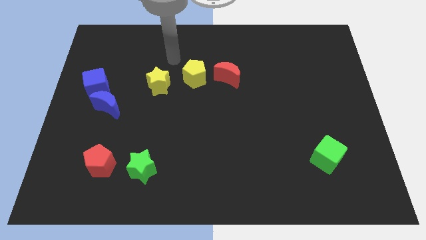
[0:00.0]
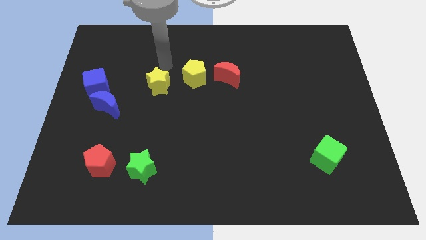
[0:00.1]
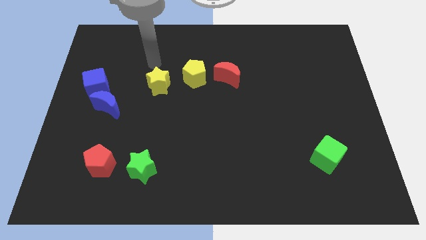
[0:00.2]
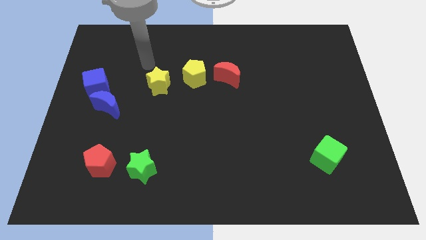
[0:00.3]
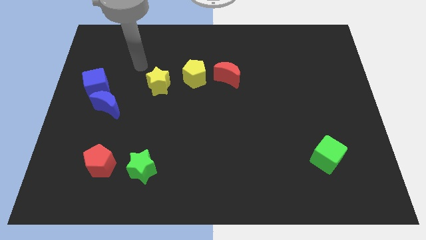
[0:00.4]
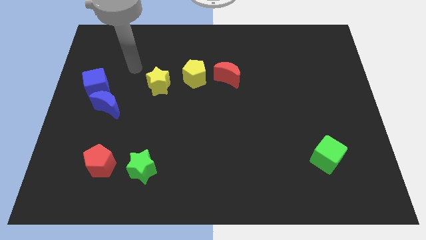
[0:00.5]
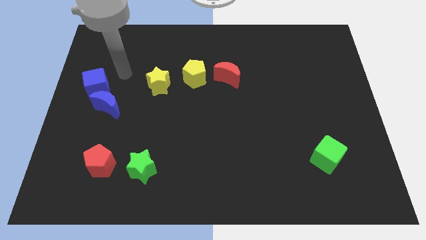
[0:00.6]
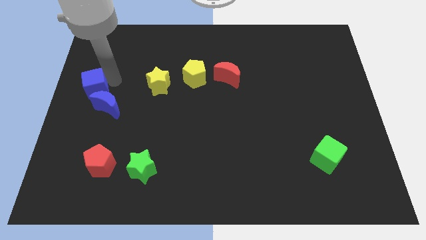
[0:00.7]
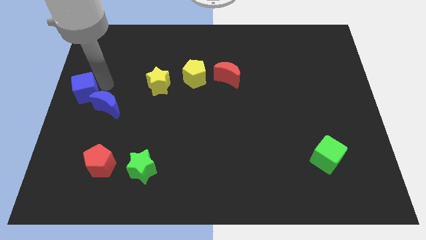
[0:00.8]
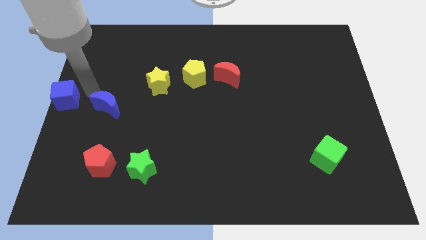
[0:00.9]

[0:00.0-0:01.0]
move the blue moon away from the blue cube

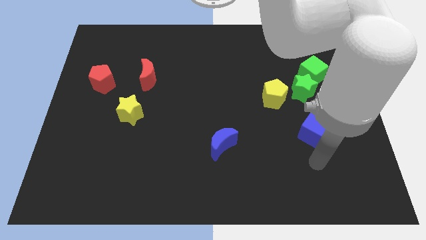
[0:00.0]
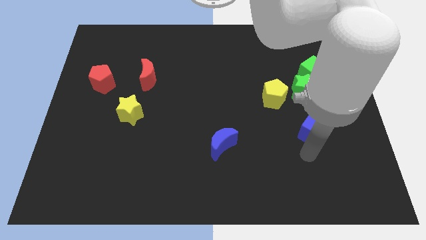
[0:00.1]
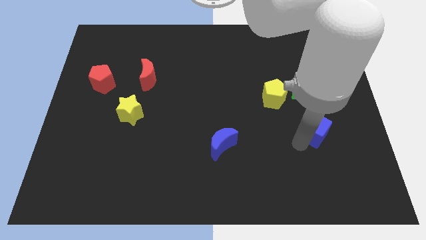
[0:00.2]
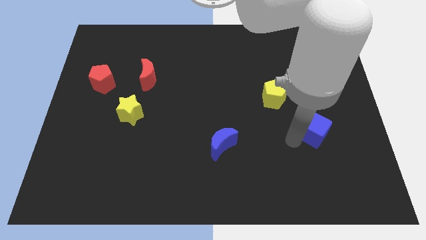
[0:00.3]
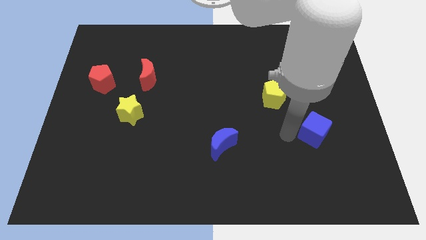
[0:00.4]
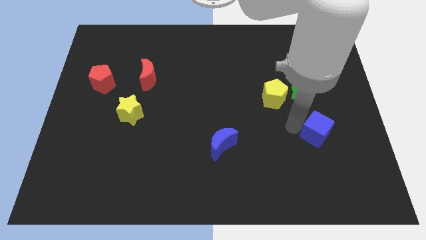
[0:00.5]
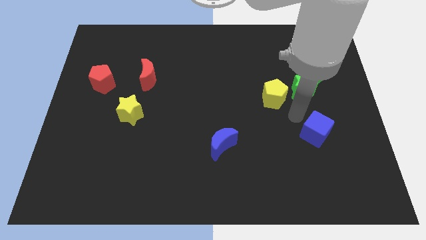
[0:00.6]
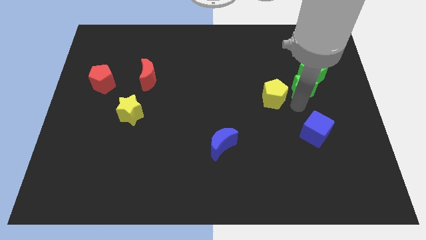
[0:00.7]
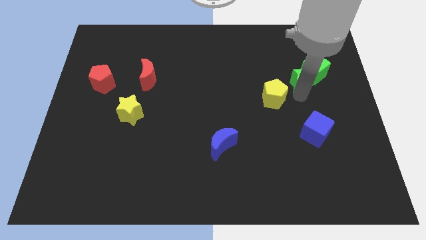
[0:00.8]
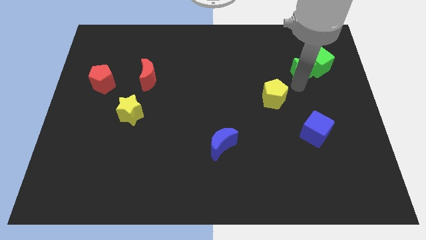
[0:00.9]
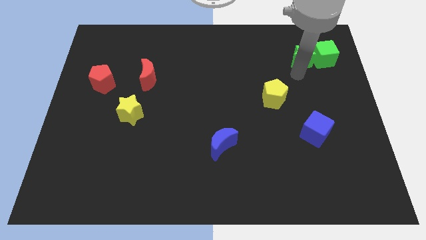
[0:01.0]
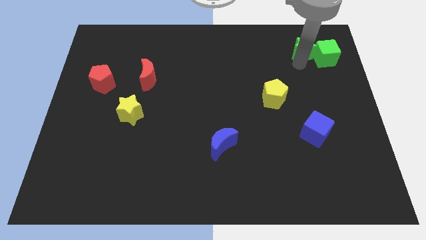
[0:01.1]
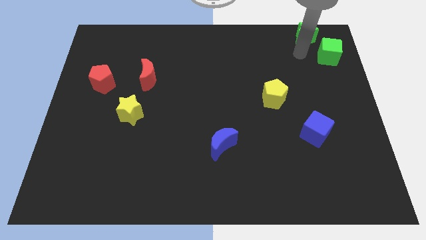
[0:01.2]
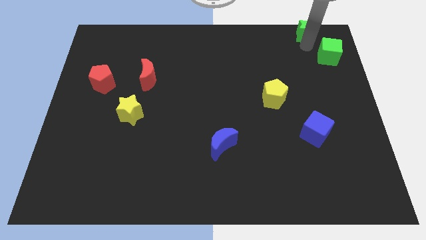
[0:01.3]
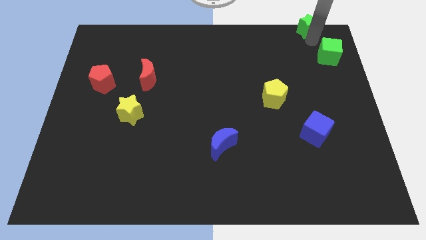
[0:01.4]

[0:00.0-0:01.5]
move the green cube away from the green star

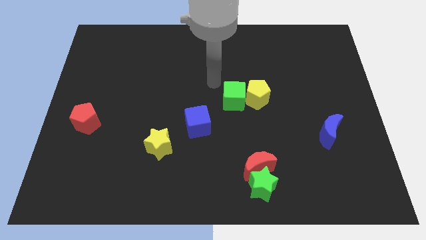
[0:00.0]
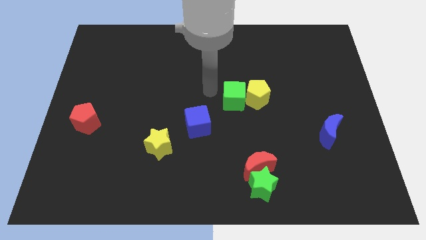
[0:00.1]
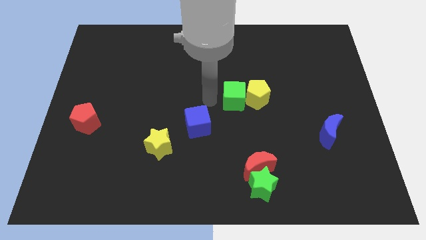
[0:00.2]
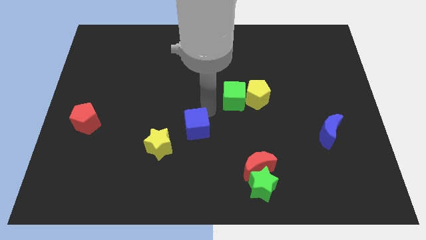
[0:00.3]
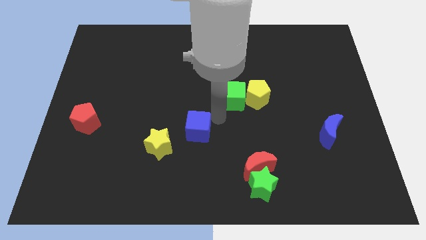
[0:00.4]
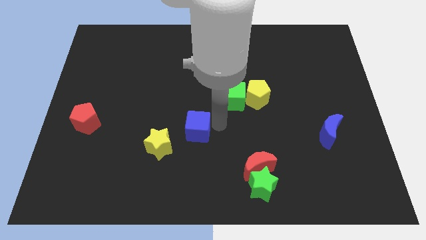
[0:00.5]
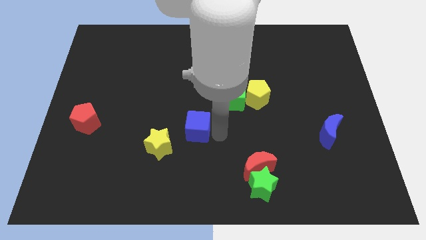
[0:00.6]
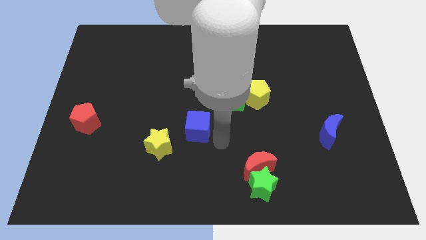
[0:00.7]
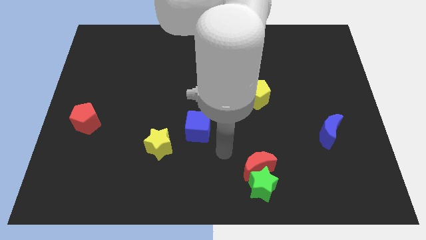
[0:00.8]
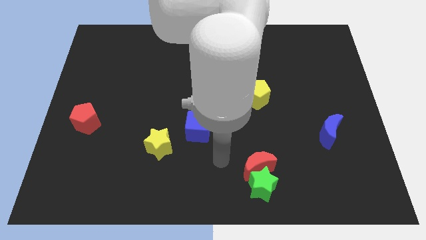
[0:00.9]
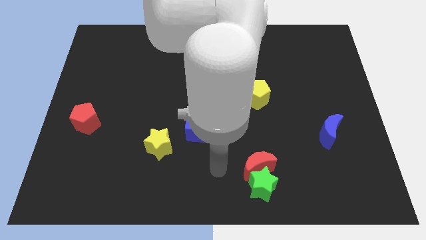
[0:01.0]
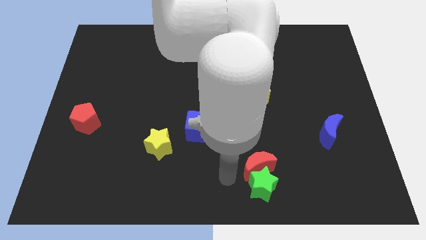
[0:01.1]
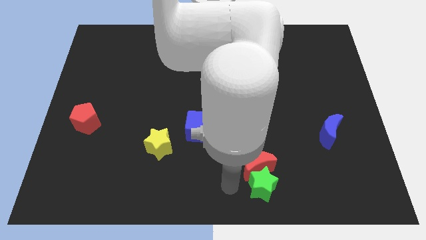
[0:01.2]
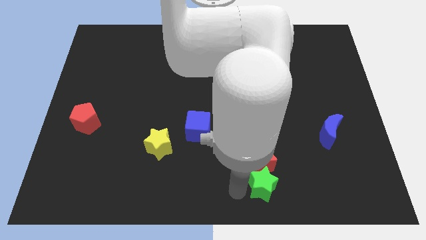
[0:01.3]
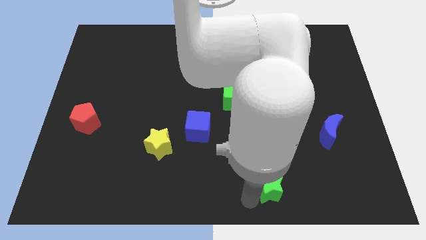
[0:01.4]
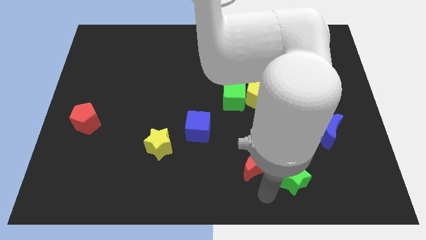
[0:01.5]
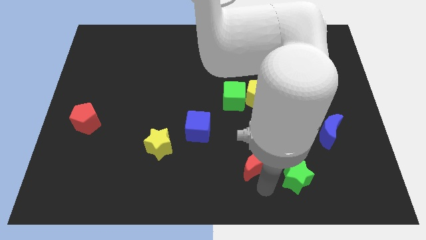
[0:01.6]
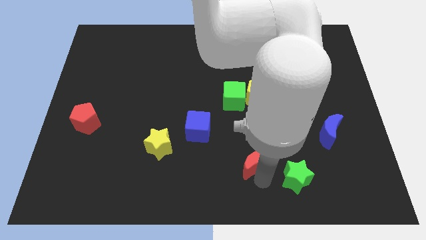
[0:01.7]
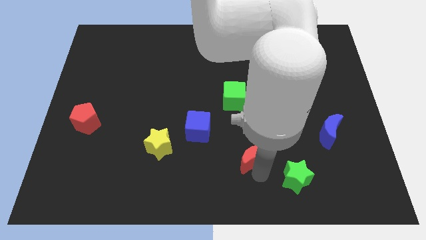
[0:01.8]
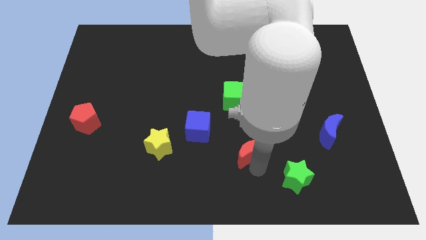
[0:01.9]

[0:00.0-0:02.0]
move the red moon away from the green star

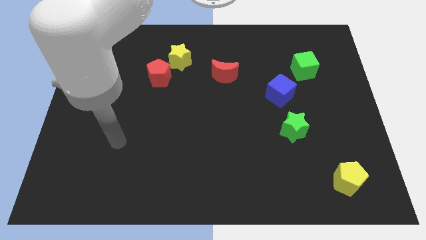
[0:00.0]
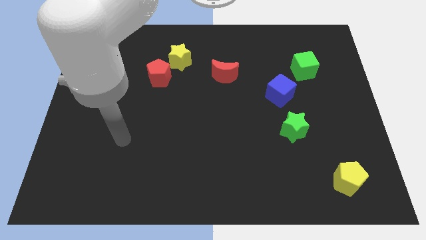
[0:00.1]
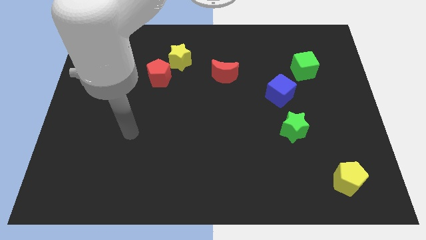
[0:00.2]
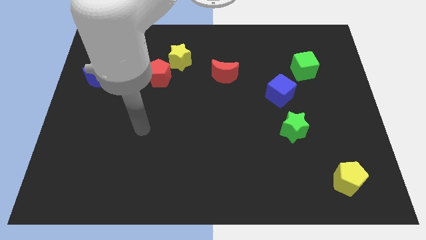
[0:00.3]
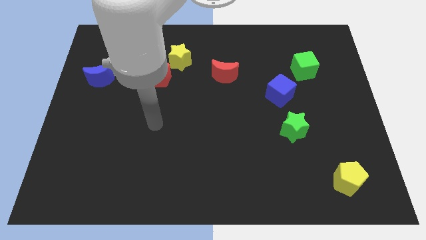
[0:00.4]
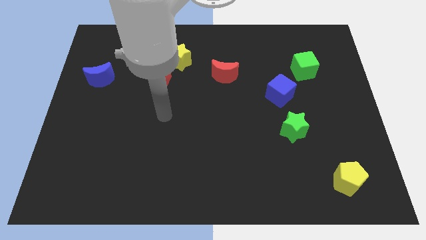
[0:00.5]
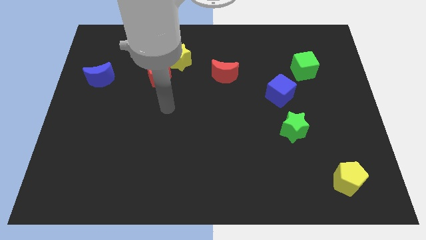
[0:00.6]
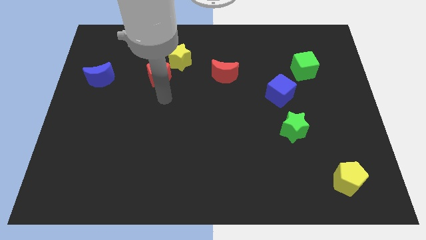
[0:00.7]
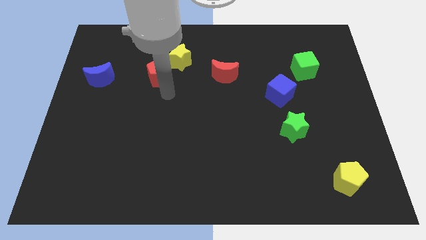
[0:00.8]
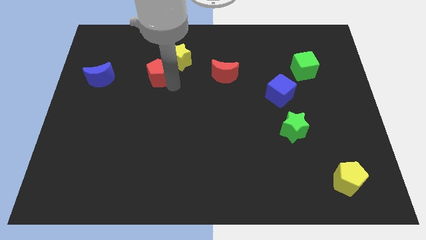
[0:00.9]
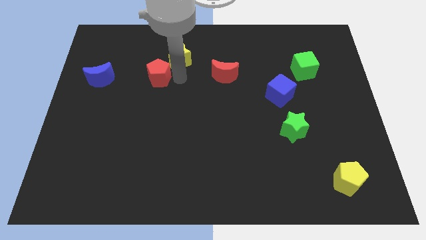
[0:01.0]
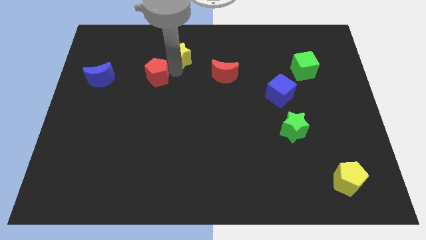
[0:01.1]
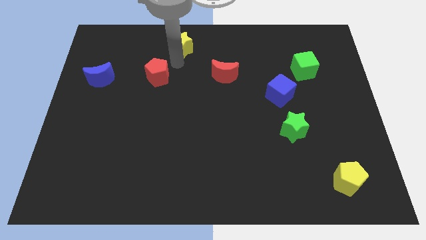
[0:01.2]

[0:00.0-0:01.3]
pull the red pentagon apart from the yellow star

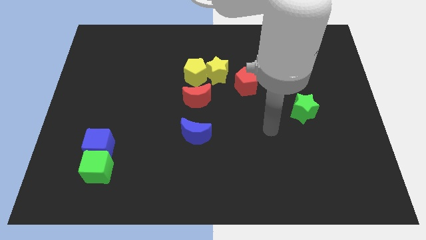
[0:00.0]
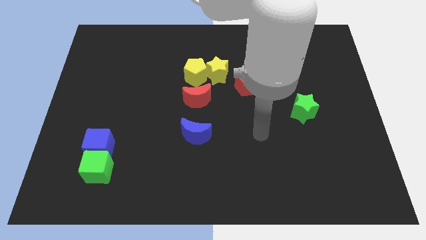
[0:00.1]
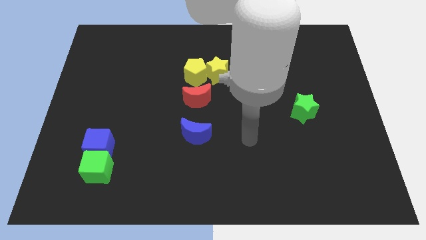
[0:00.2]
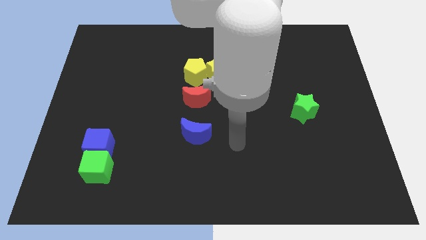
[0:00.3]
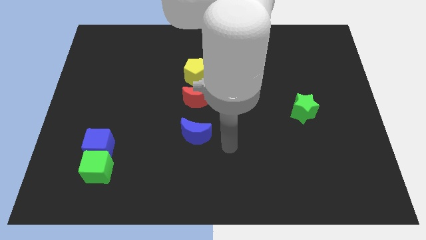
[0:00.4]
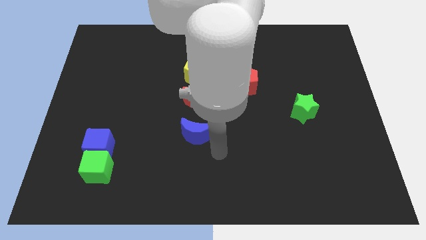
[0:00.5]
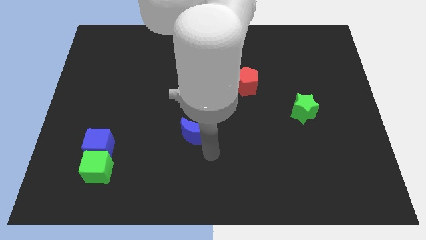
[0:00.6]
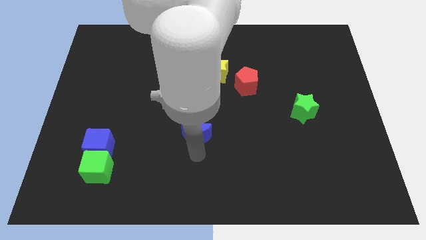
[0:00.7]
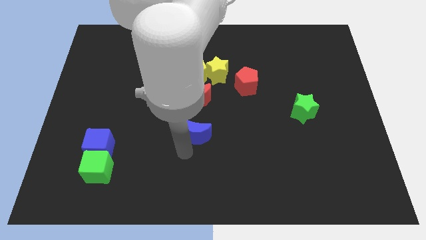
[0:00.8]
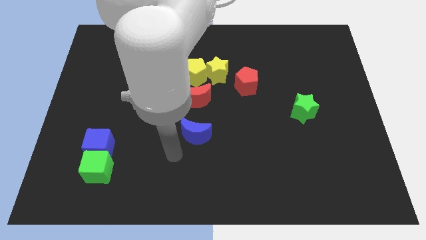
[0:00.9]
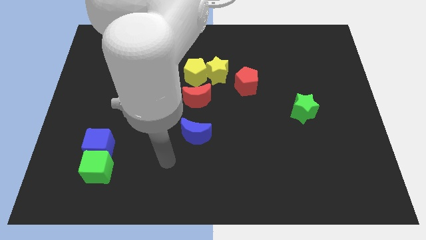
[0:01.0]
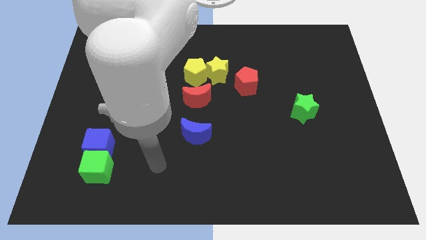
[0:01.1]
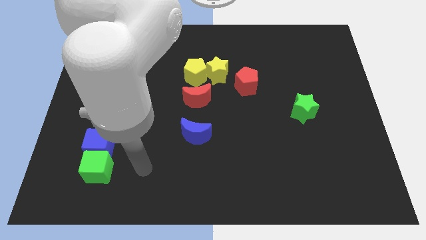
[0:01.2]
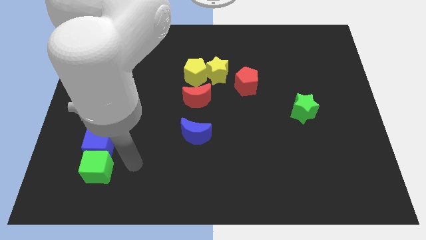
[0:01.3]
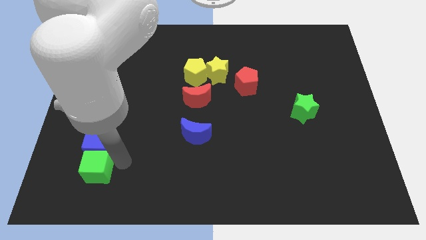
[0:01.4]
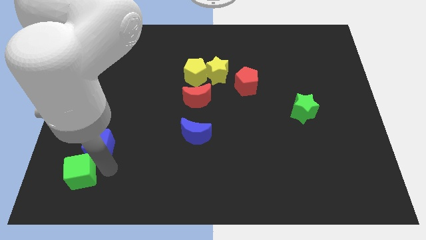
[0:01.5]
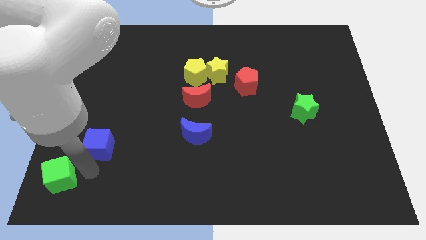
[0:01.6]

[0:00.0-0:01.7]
pull the blue cube apart from the green cube

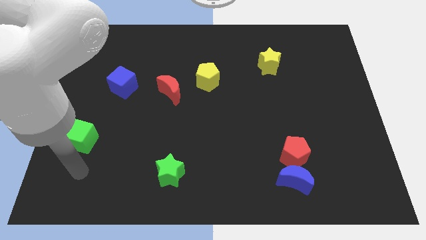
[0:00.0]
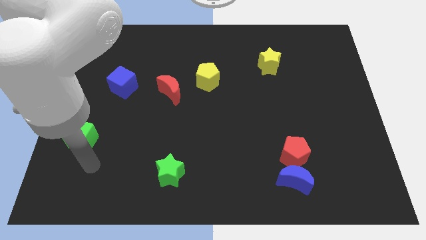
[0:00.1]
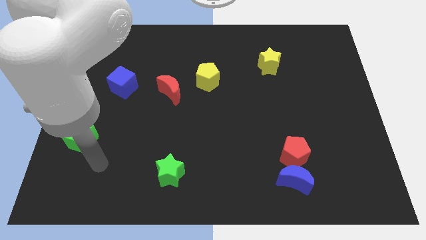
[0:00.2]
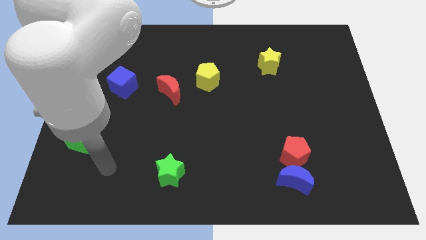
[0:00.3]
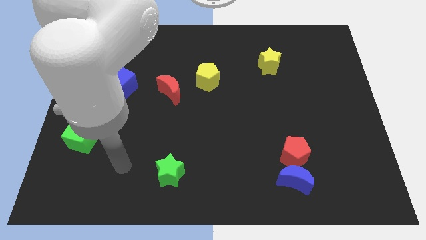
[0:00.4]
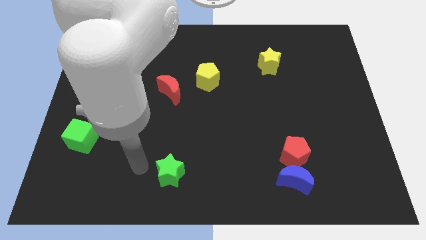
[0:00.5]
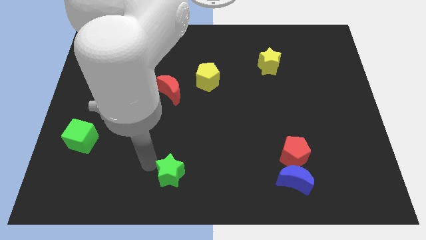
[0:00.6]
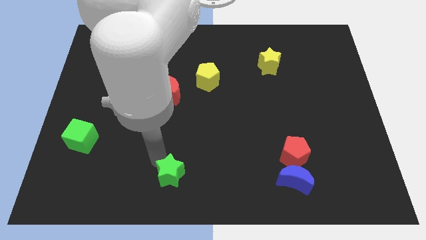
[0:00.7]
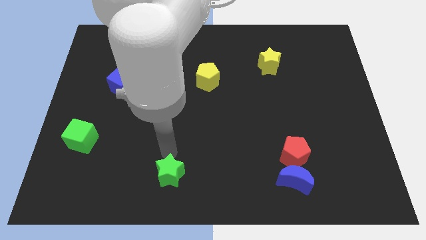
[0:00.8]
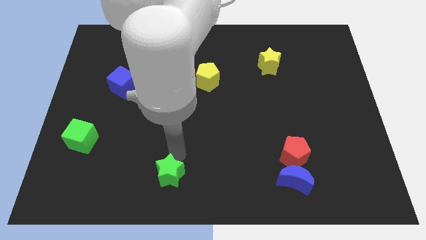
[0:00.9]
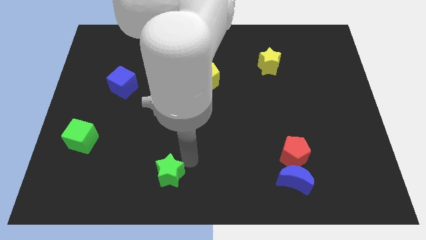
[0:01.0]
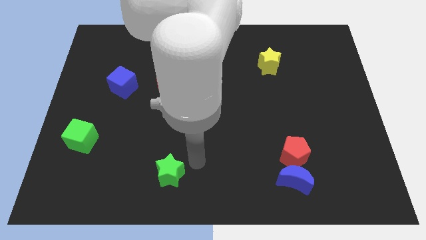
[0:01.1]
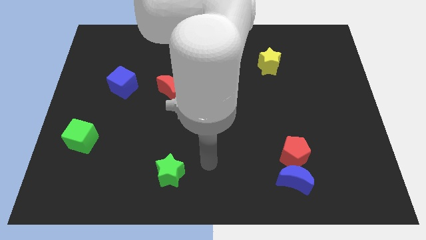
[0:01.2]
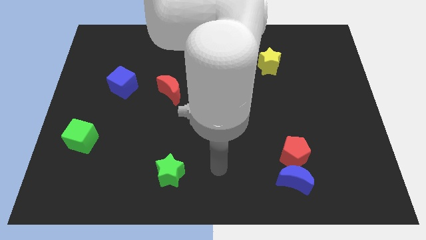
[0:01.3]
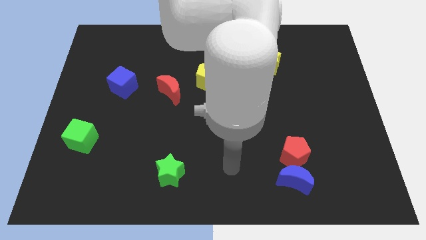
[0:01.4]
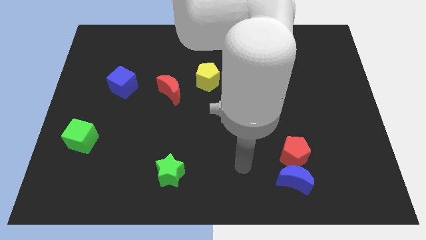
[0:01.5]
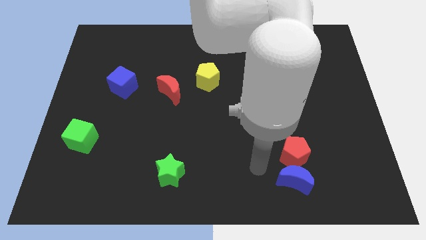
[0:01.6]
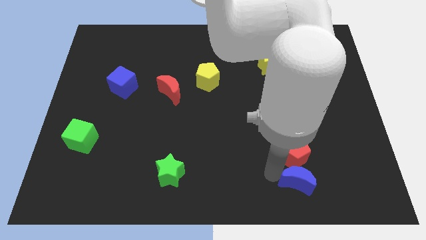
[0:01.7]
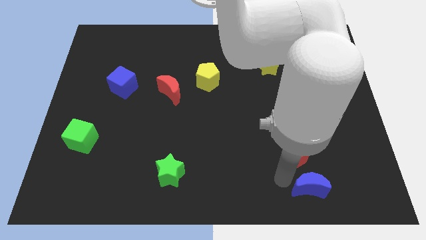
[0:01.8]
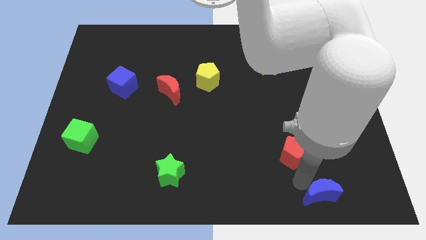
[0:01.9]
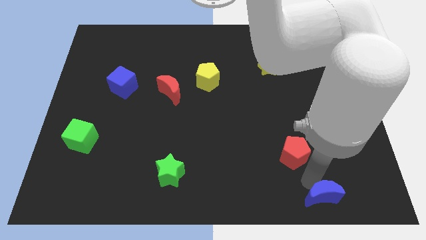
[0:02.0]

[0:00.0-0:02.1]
pull the red pentagon apart from the blue moon
